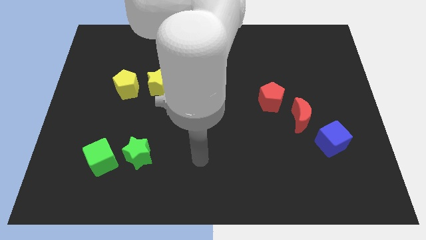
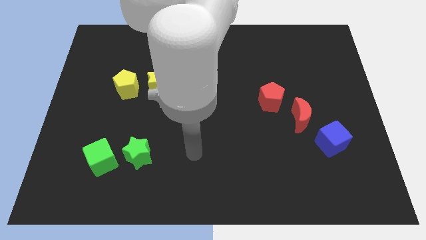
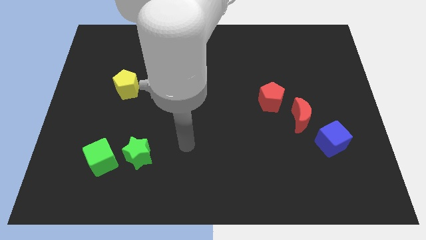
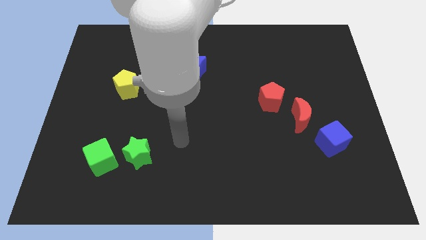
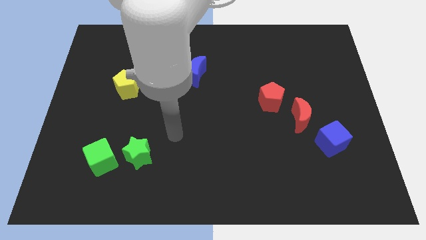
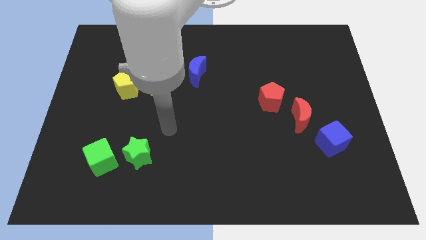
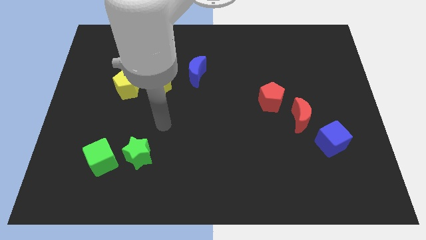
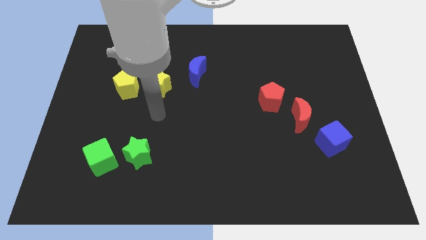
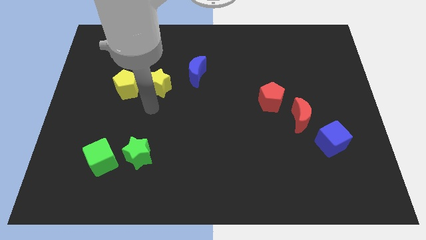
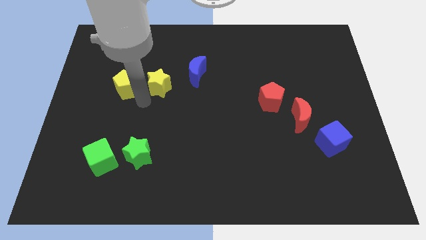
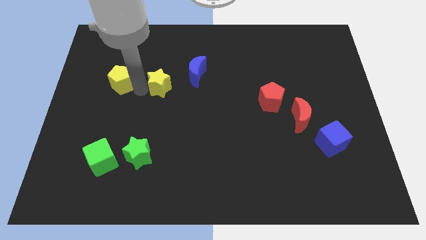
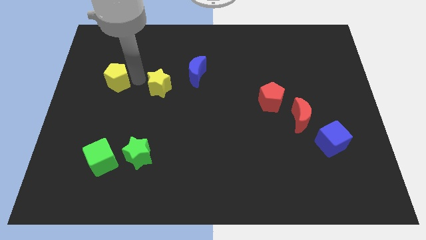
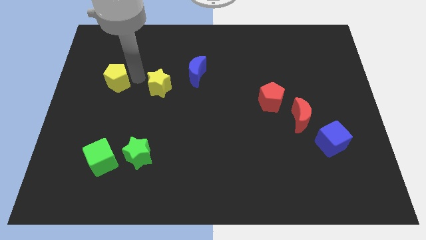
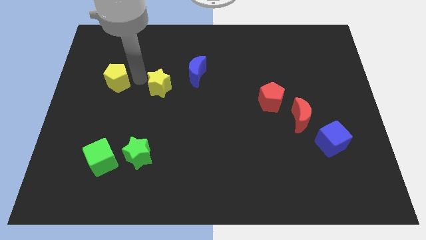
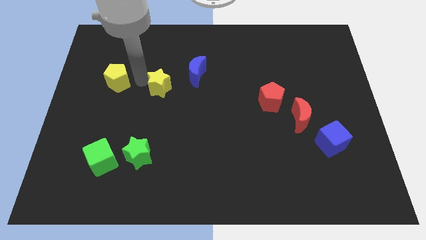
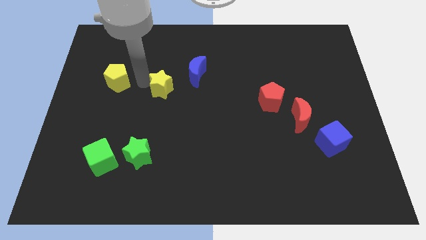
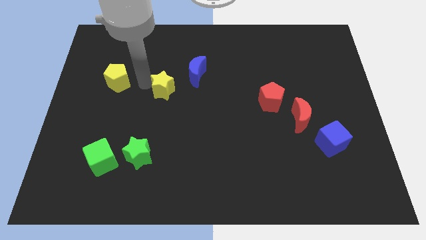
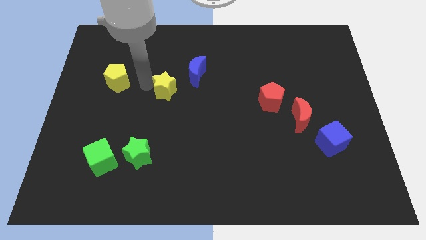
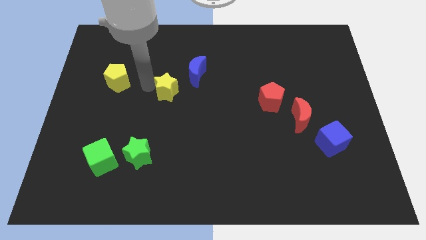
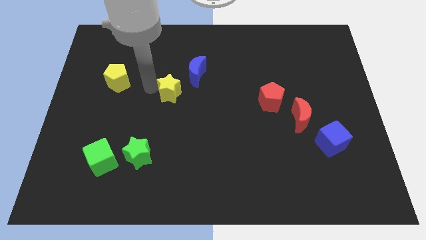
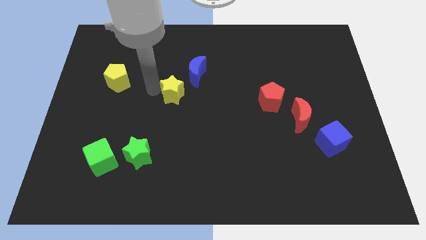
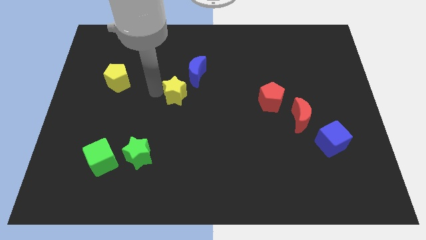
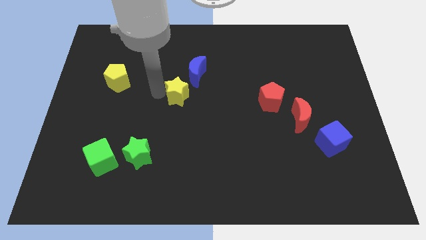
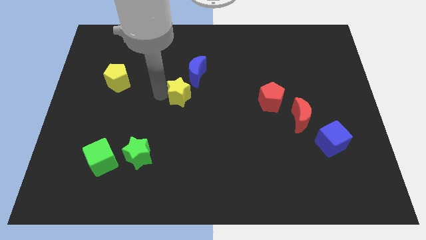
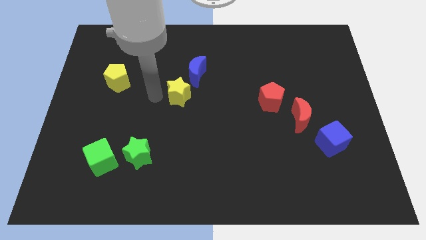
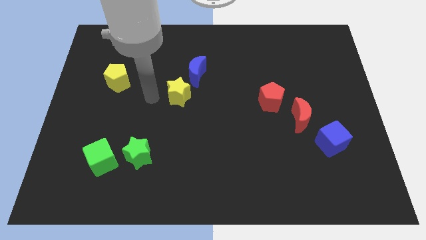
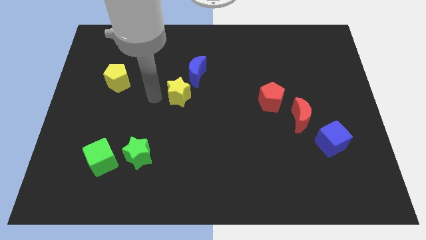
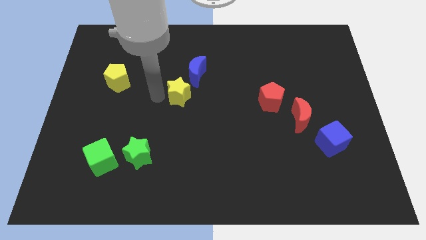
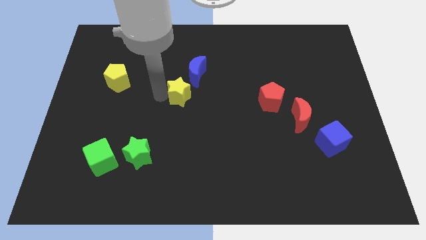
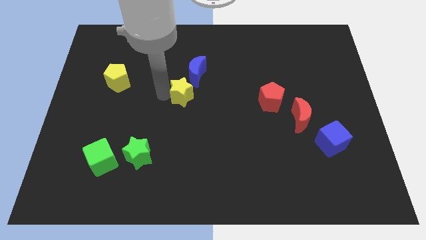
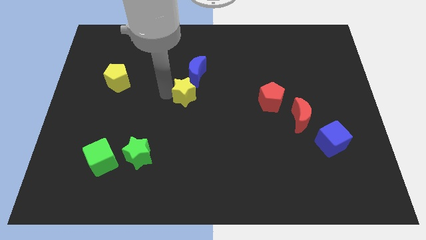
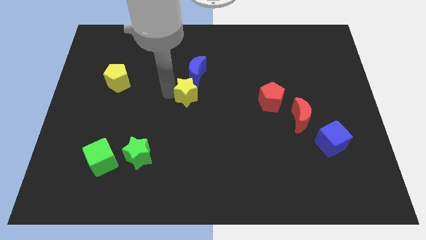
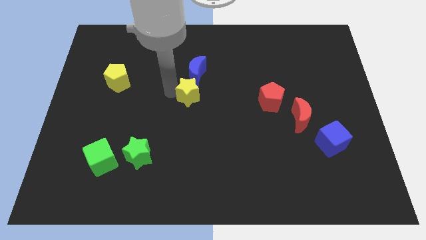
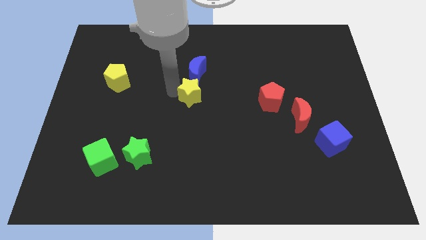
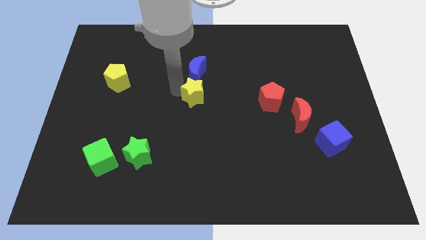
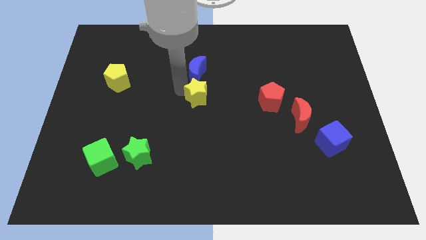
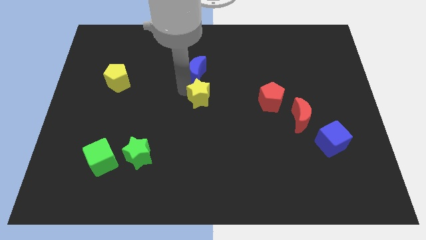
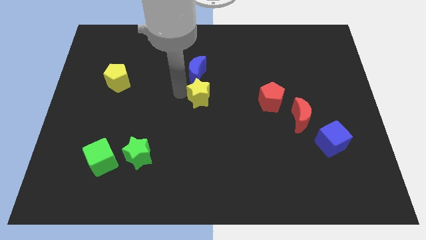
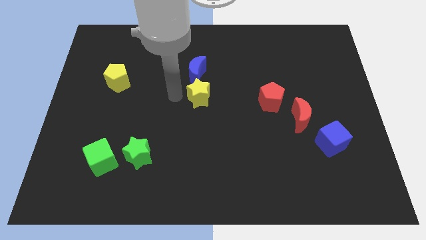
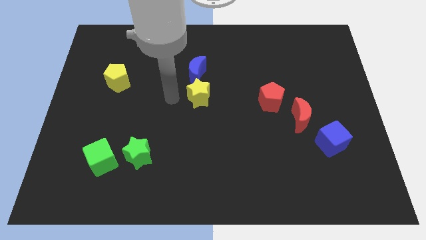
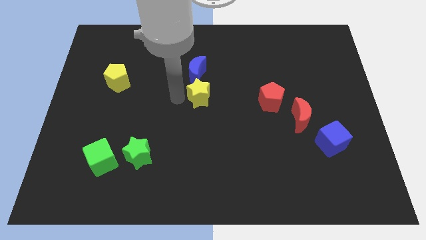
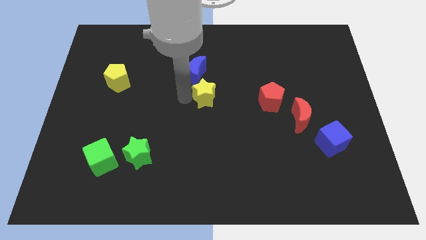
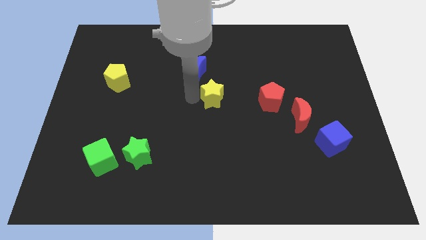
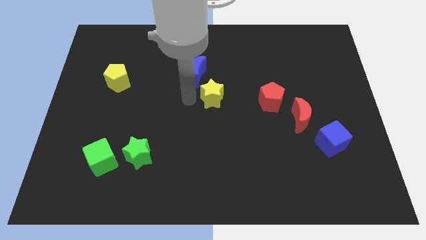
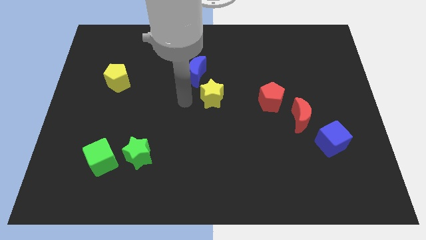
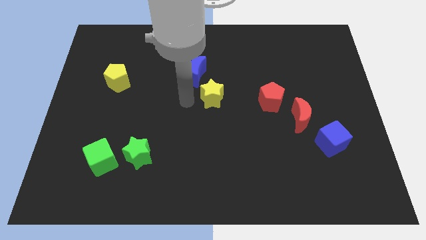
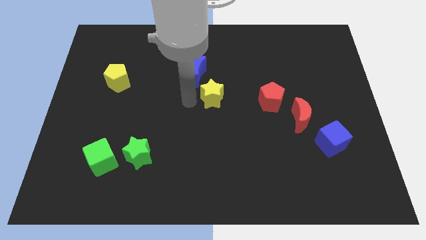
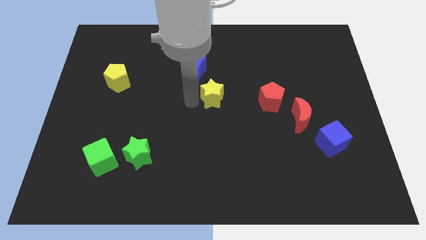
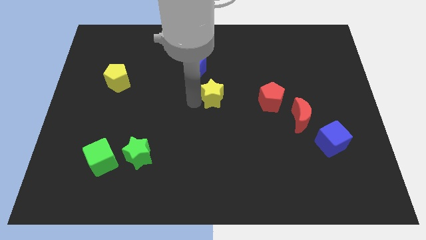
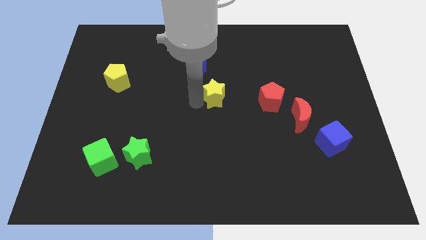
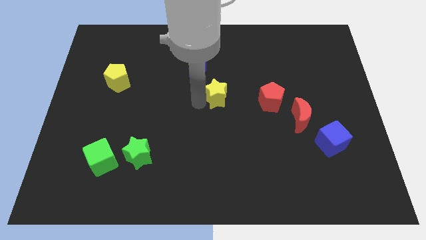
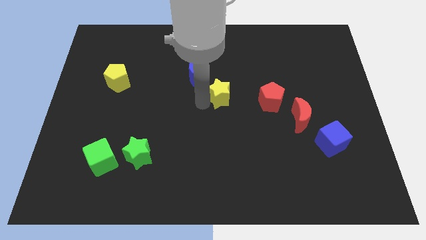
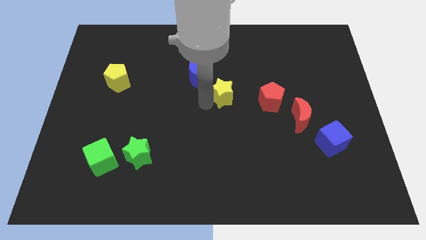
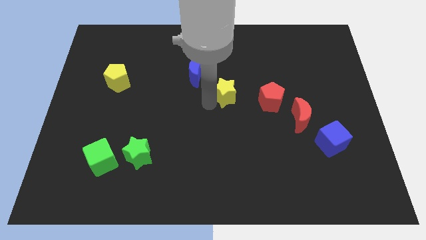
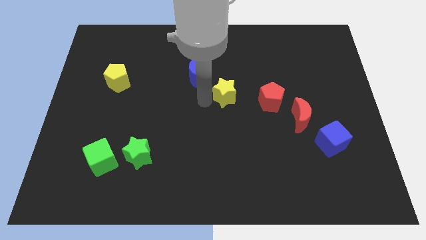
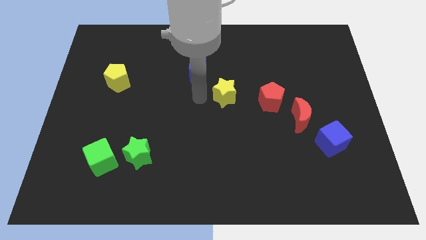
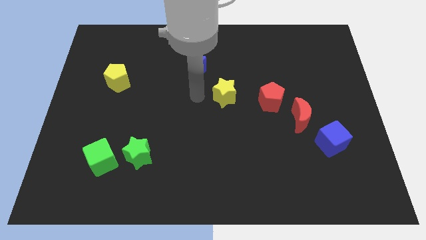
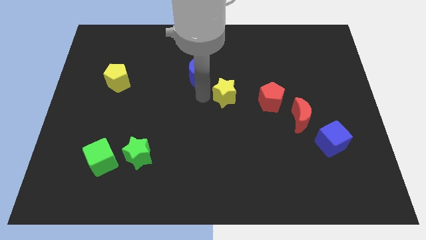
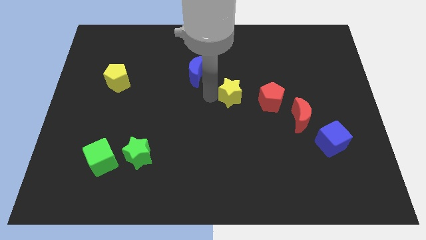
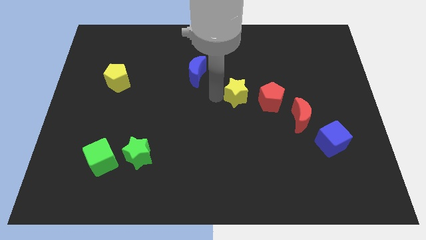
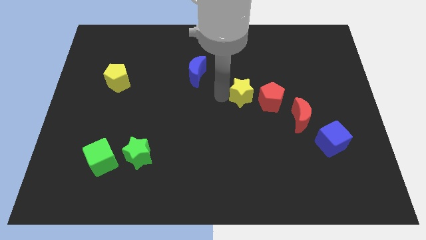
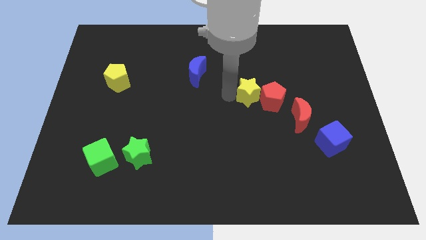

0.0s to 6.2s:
slide the yellow star close to the red pentagon

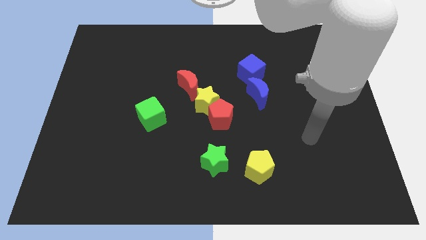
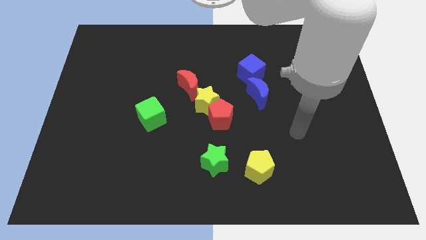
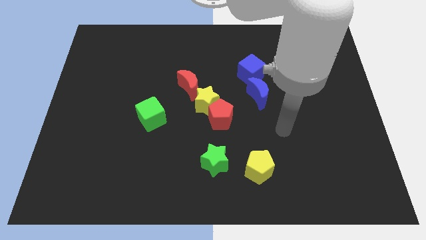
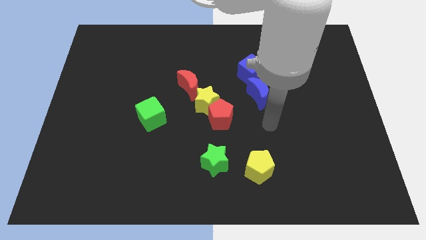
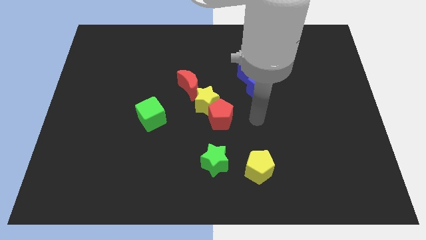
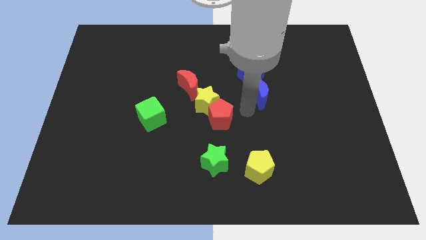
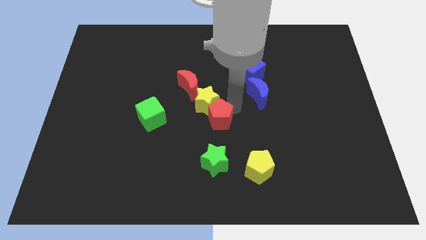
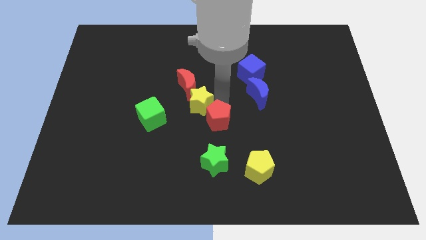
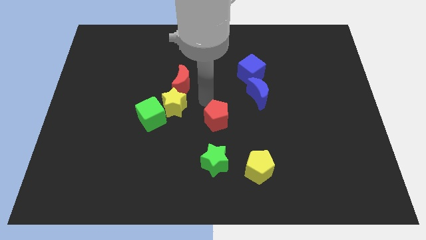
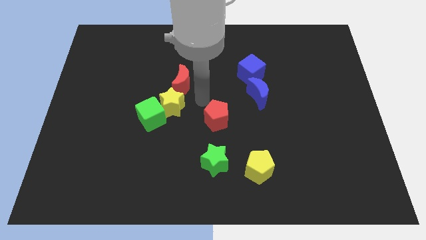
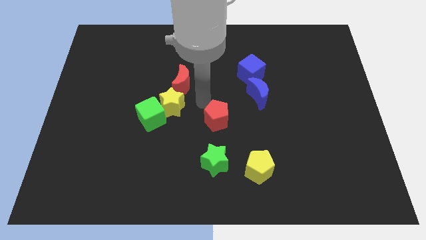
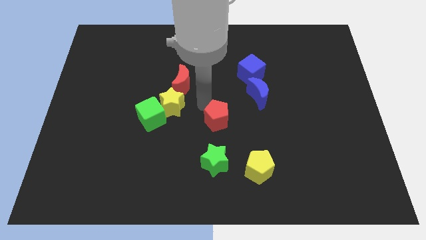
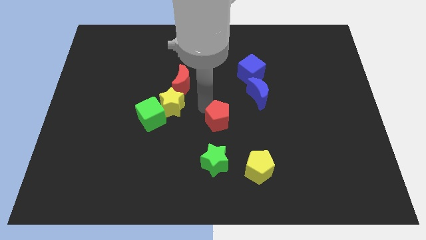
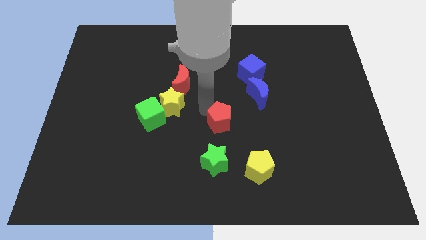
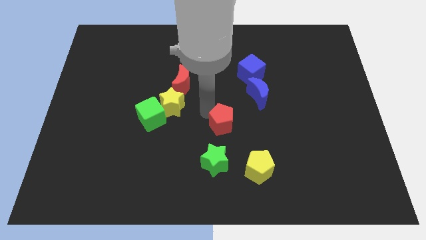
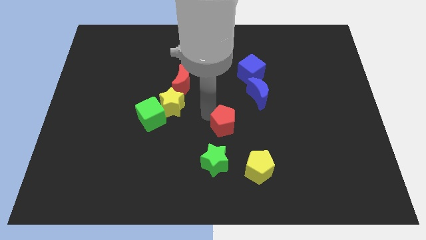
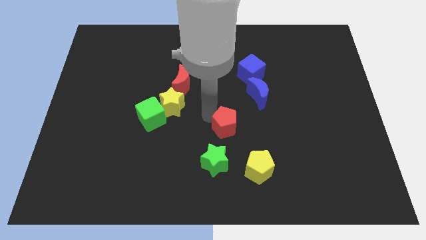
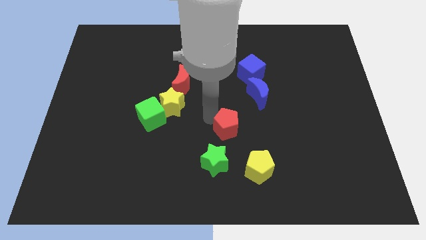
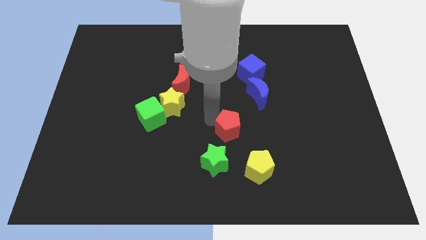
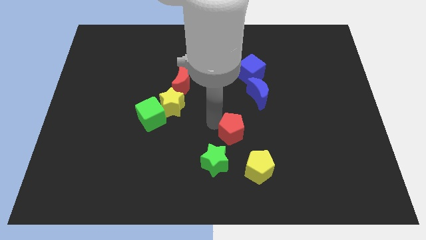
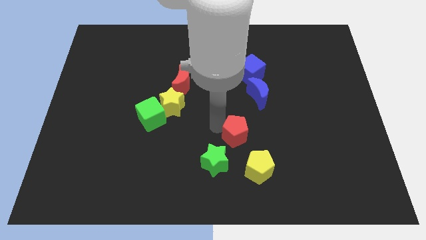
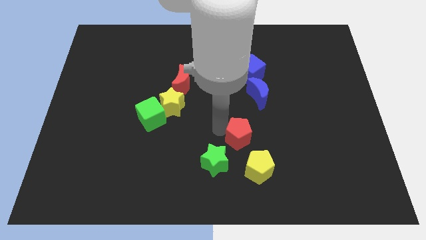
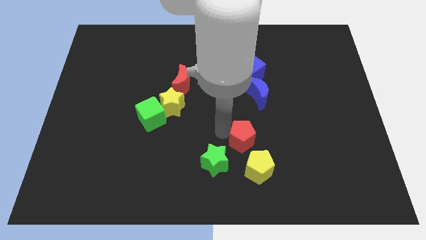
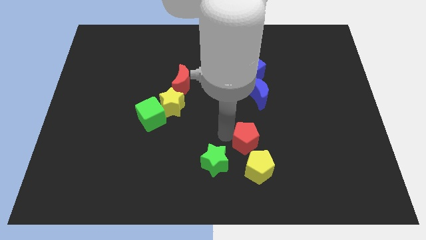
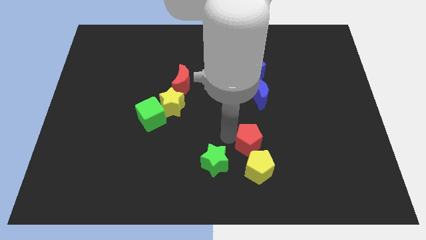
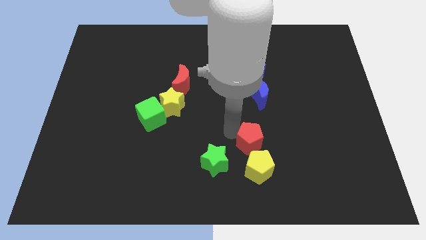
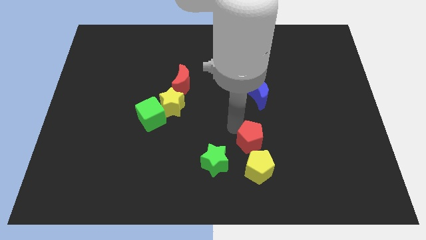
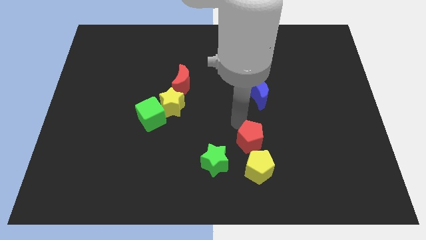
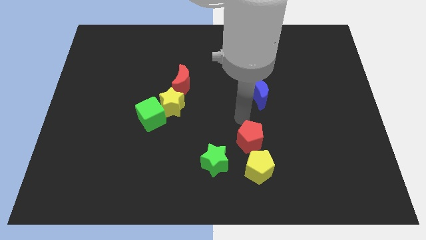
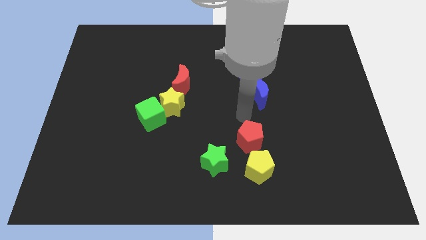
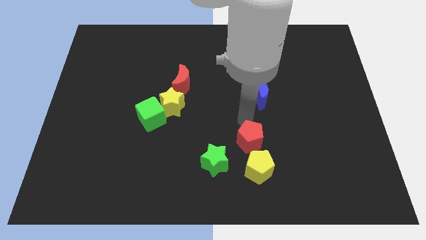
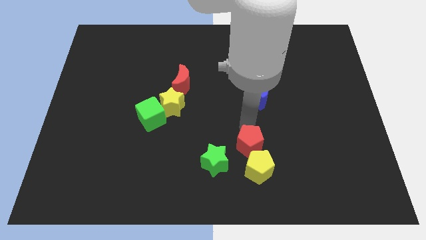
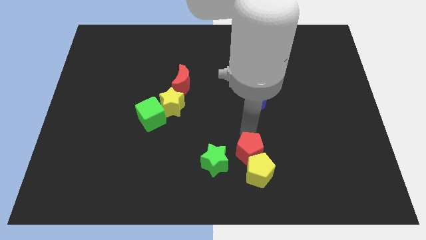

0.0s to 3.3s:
slide the red pentagon towards the yellow pentagon
